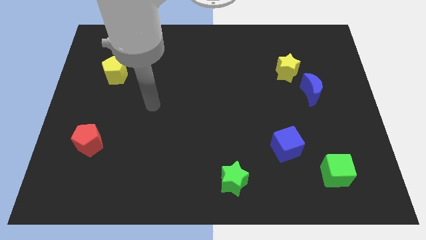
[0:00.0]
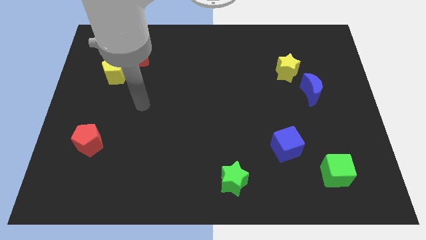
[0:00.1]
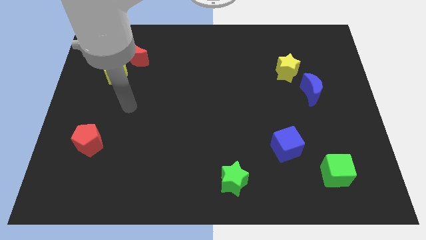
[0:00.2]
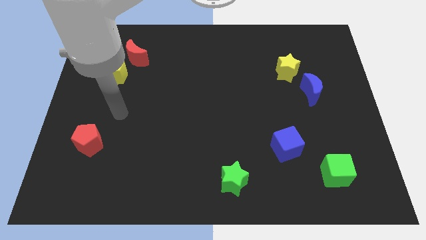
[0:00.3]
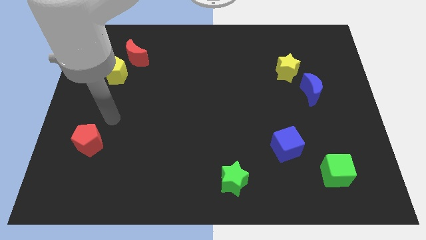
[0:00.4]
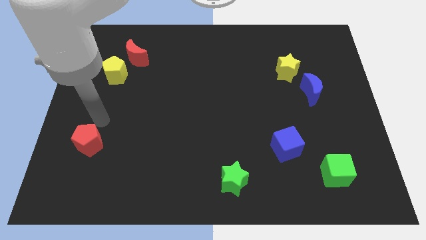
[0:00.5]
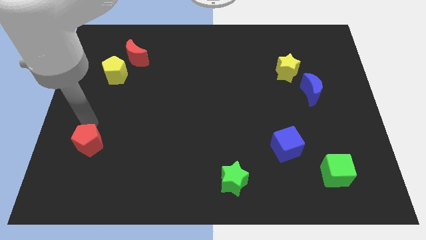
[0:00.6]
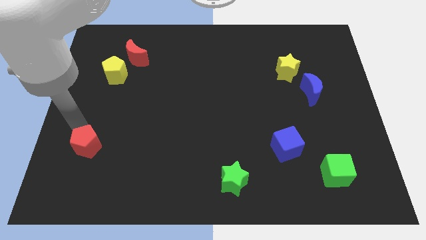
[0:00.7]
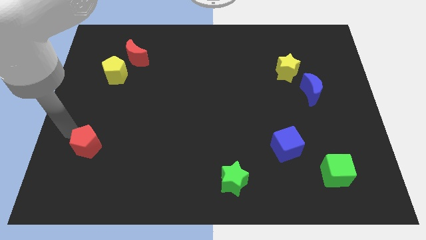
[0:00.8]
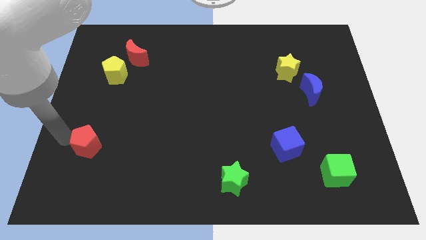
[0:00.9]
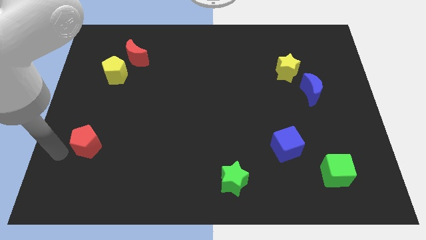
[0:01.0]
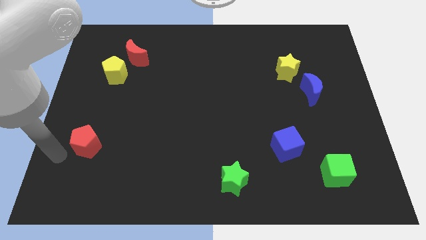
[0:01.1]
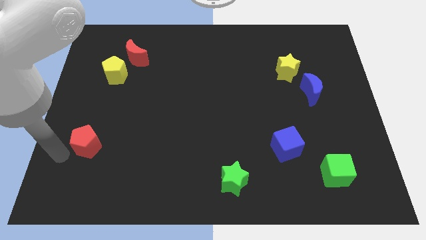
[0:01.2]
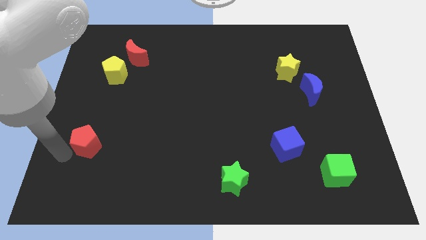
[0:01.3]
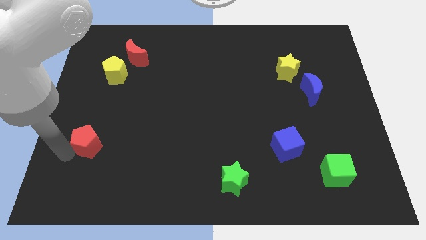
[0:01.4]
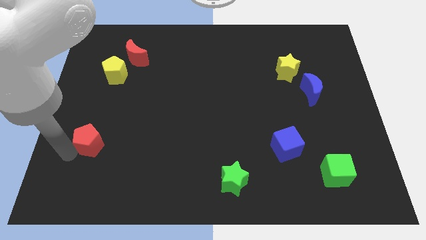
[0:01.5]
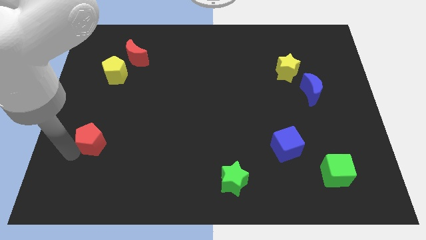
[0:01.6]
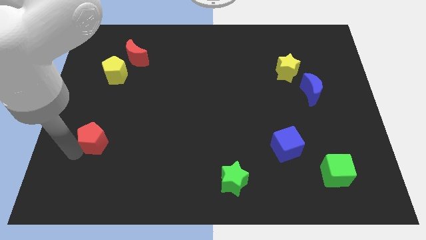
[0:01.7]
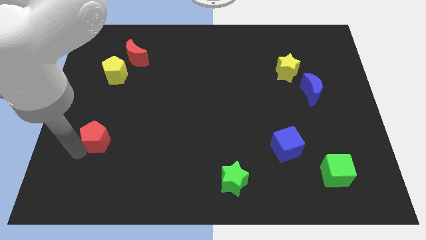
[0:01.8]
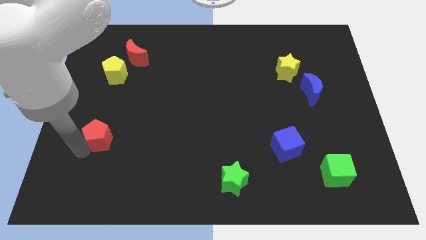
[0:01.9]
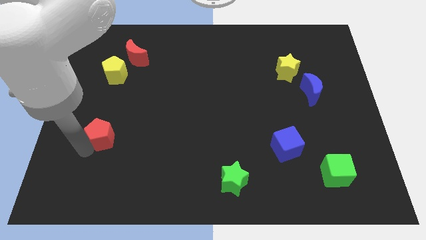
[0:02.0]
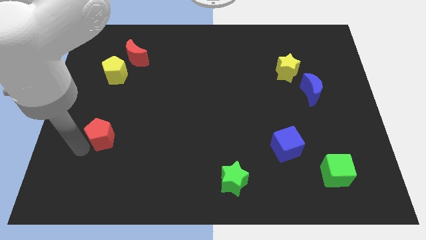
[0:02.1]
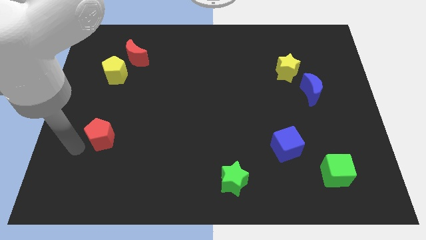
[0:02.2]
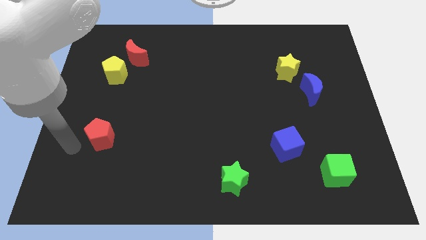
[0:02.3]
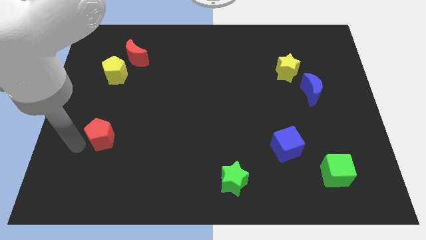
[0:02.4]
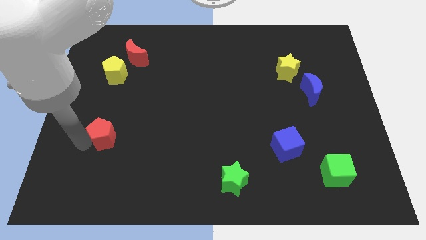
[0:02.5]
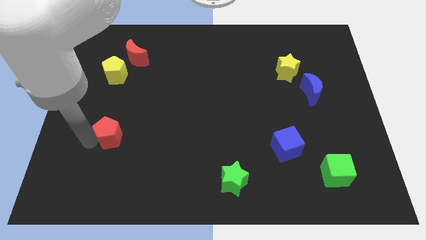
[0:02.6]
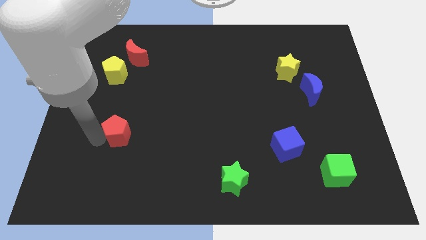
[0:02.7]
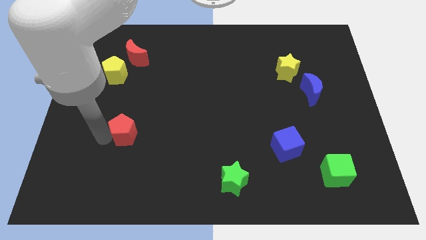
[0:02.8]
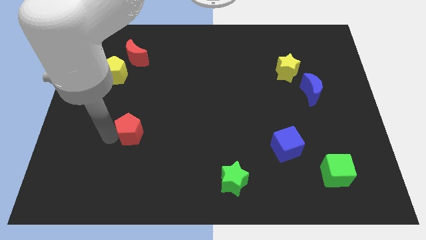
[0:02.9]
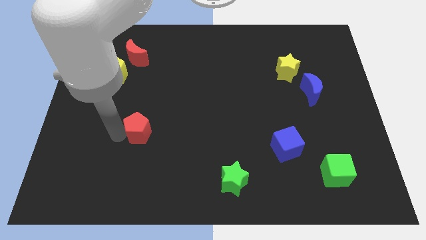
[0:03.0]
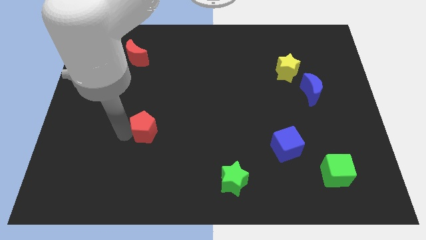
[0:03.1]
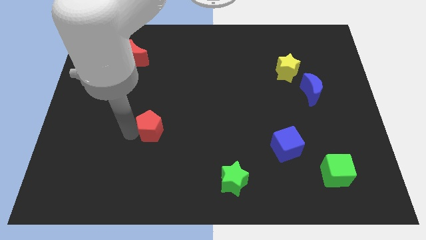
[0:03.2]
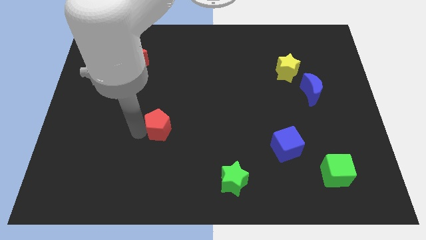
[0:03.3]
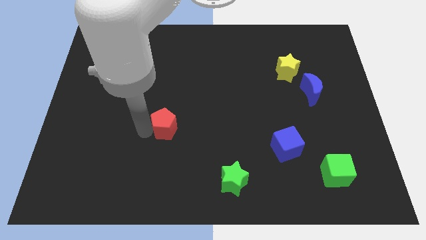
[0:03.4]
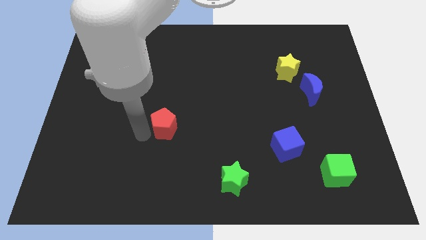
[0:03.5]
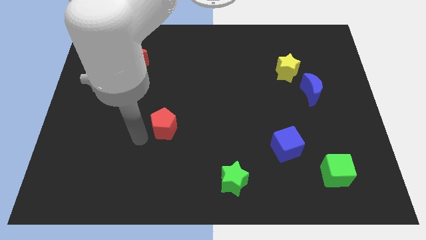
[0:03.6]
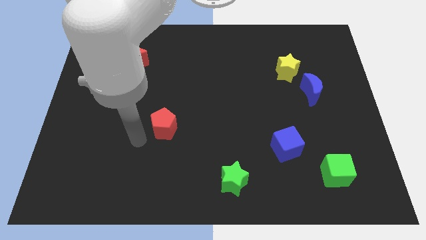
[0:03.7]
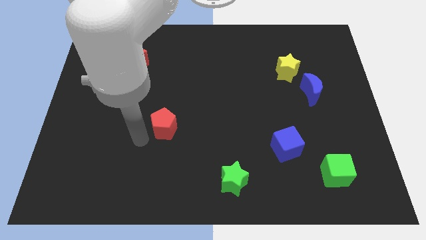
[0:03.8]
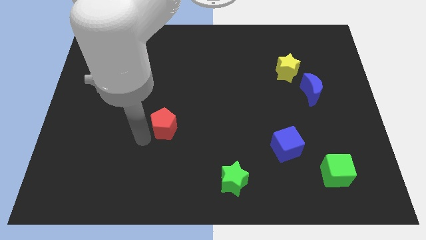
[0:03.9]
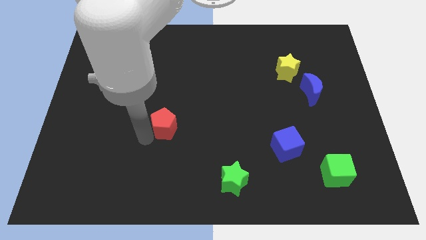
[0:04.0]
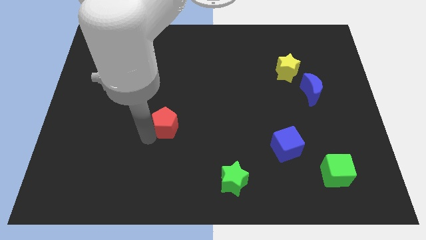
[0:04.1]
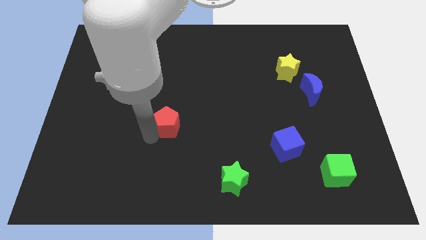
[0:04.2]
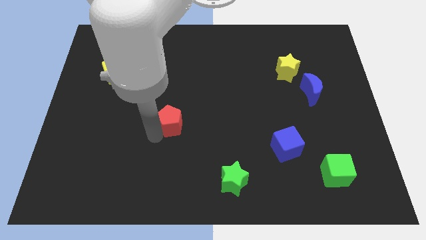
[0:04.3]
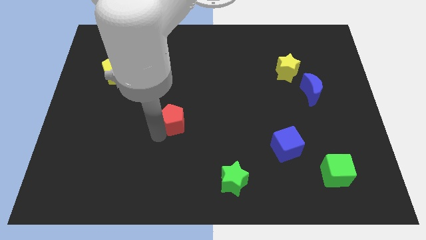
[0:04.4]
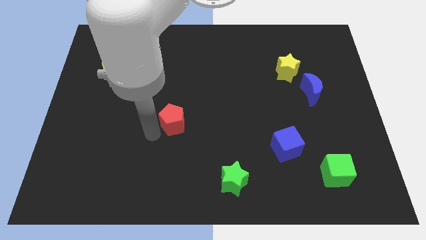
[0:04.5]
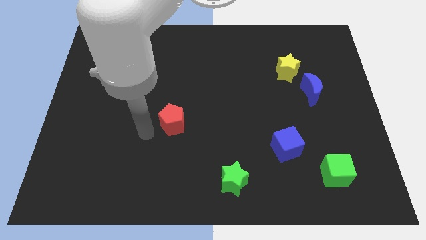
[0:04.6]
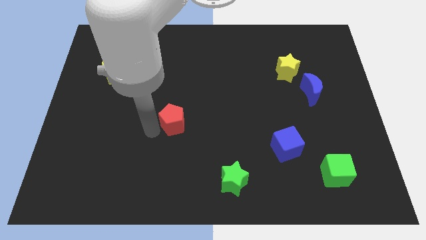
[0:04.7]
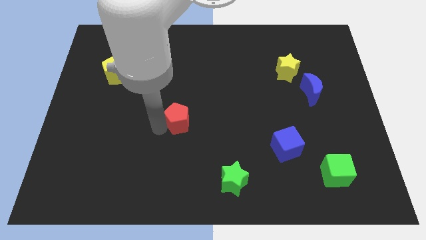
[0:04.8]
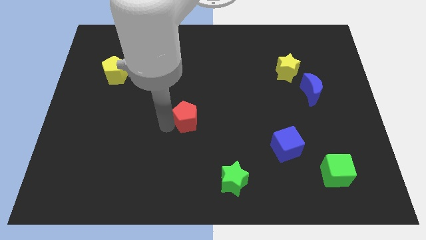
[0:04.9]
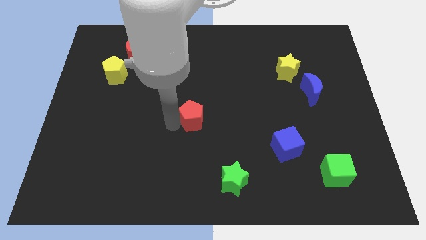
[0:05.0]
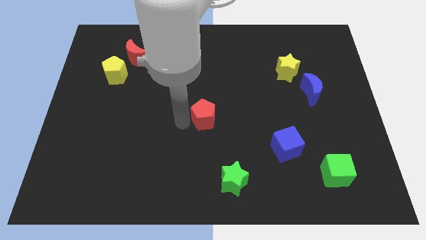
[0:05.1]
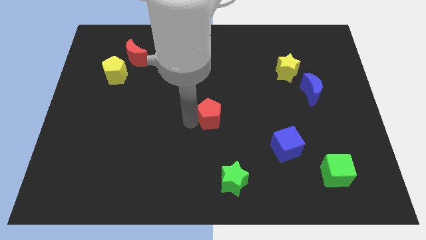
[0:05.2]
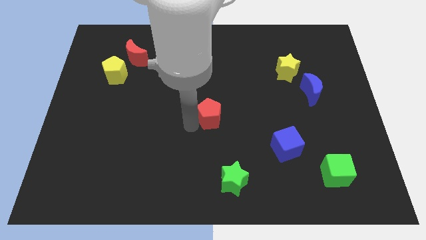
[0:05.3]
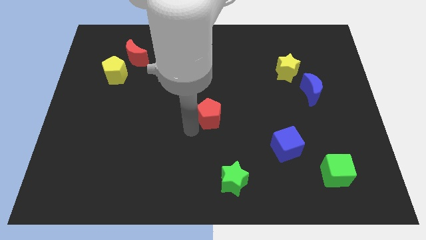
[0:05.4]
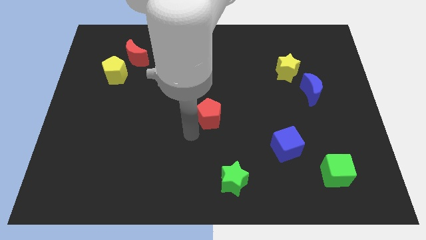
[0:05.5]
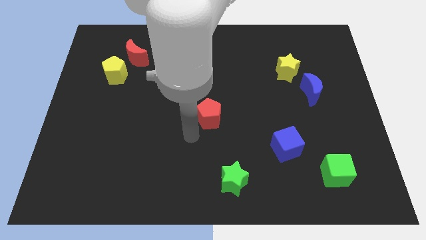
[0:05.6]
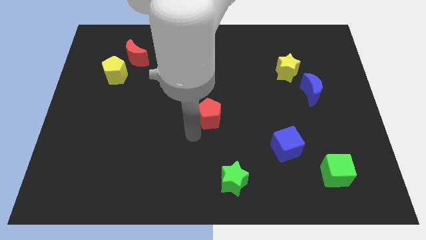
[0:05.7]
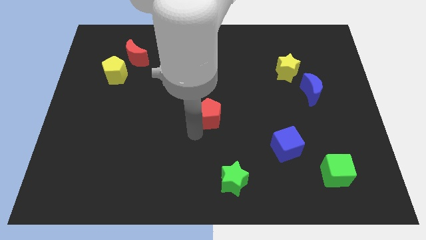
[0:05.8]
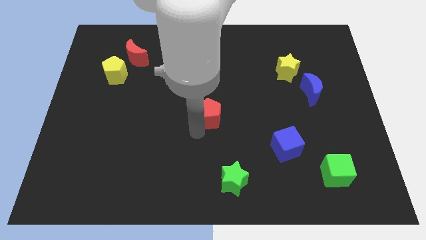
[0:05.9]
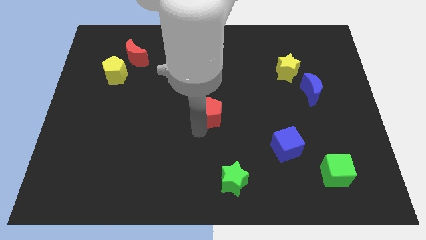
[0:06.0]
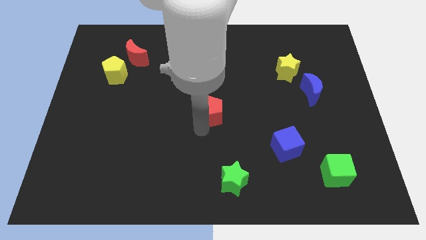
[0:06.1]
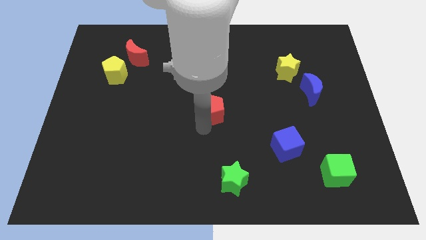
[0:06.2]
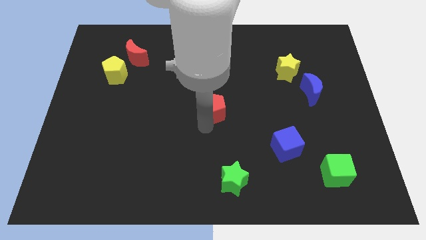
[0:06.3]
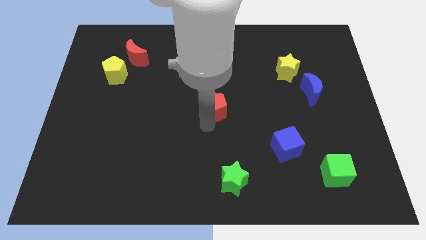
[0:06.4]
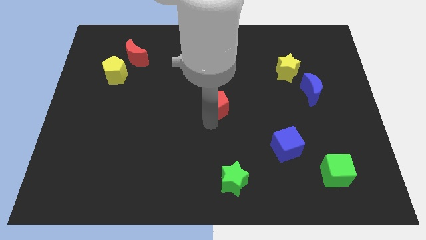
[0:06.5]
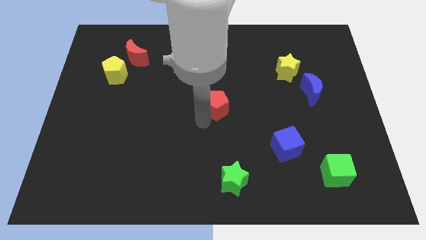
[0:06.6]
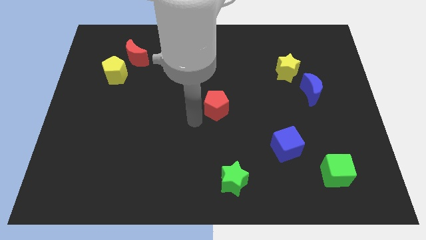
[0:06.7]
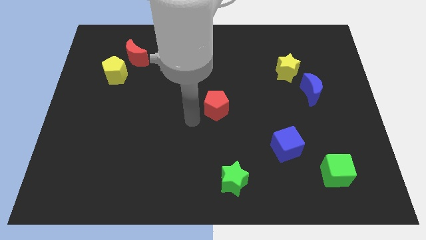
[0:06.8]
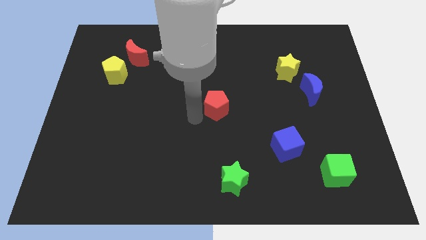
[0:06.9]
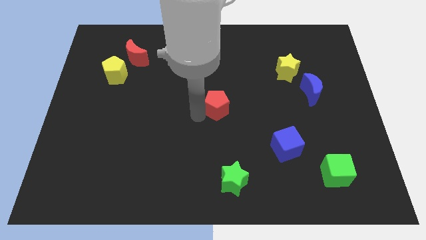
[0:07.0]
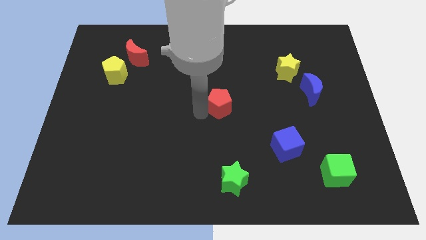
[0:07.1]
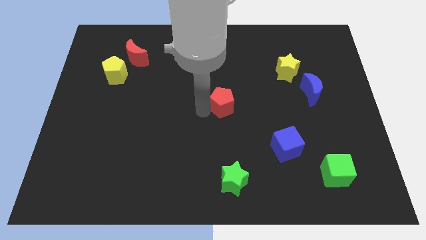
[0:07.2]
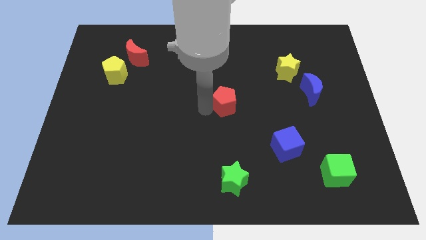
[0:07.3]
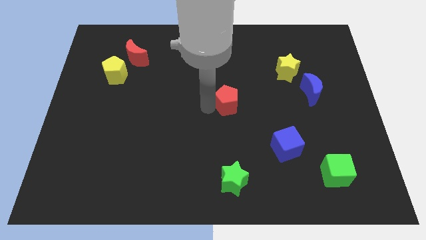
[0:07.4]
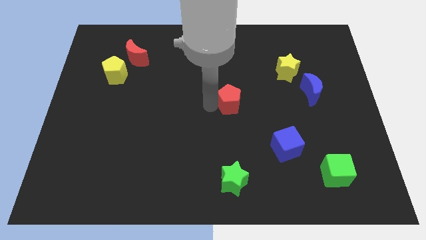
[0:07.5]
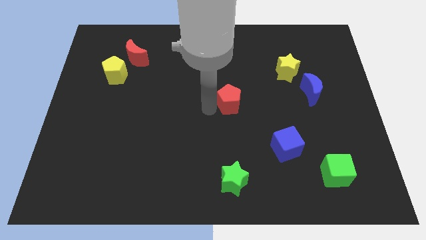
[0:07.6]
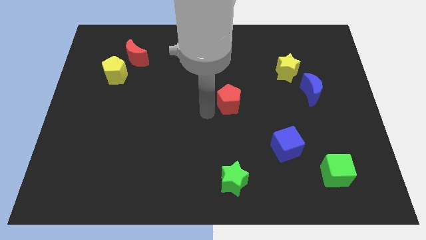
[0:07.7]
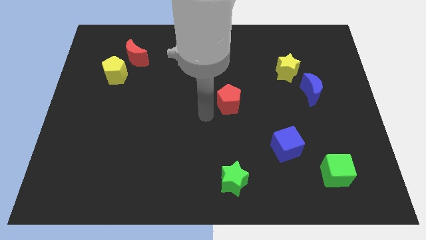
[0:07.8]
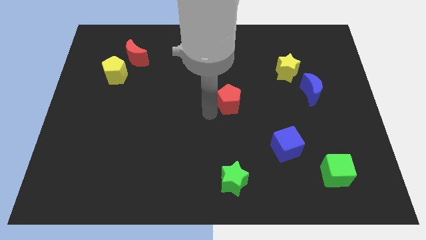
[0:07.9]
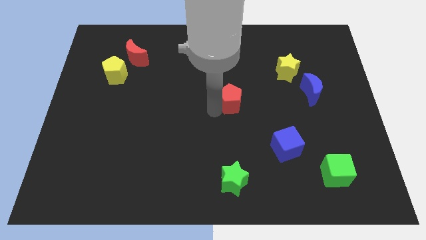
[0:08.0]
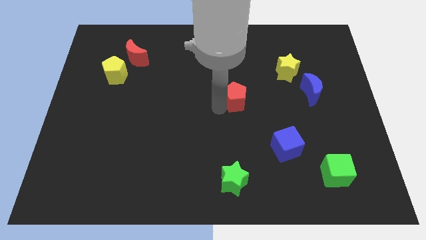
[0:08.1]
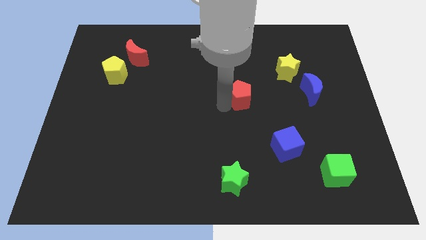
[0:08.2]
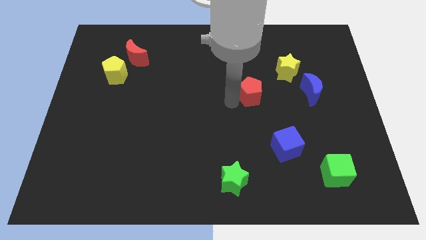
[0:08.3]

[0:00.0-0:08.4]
slide the red pentagon to the bottom left side of the yellow star
